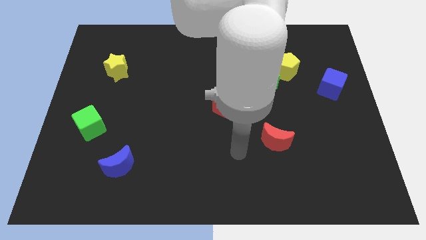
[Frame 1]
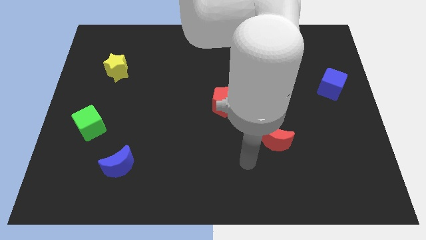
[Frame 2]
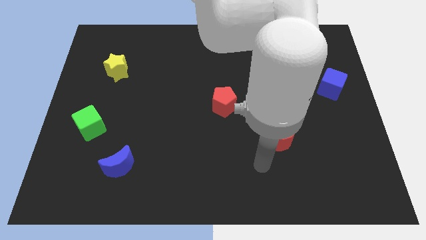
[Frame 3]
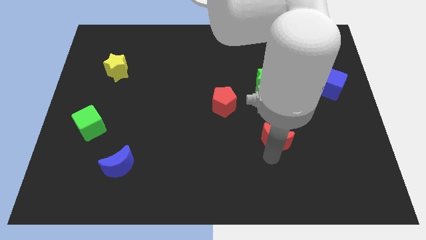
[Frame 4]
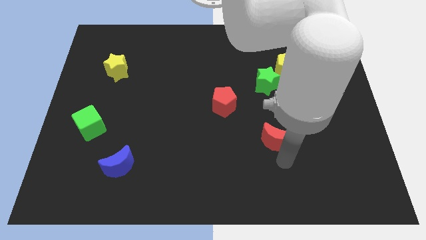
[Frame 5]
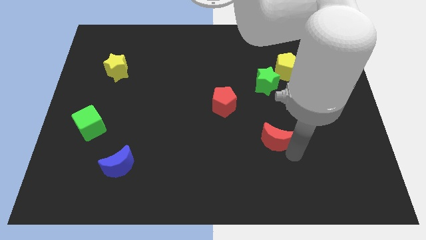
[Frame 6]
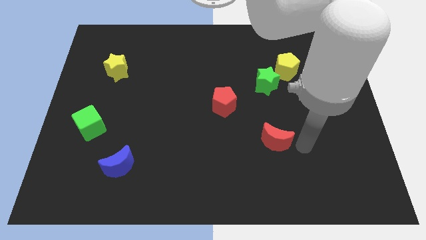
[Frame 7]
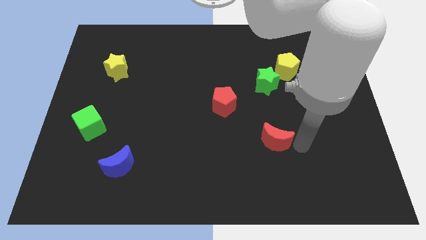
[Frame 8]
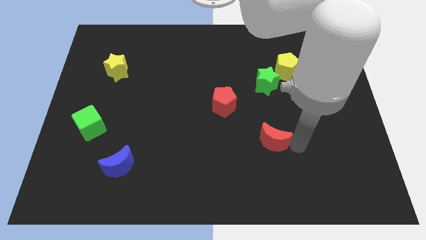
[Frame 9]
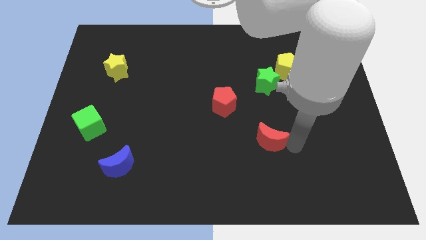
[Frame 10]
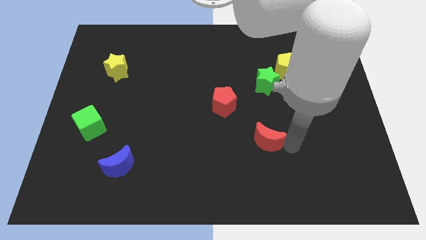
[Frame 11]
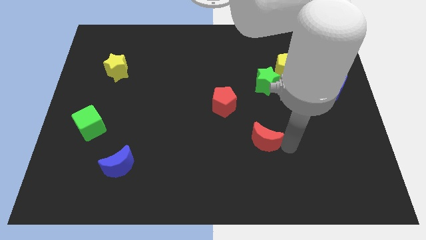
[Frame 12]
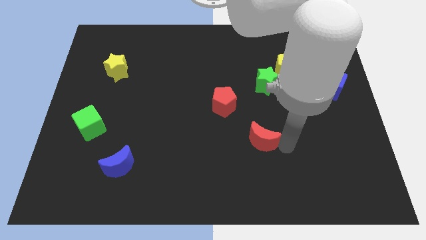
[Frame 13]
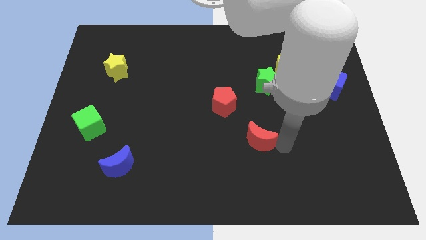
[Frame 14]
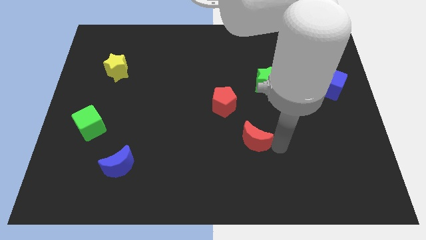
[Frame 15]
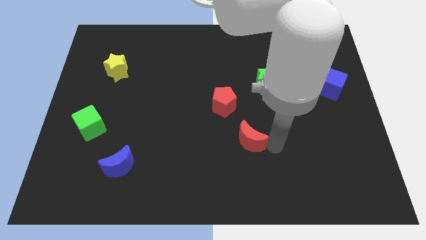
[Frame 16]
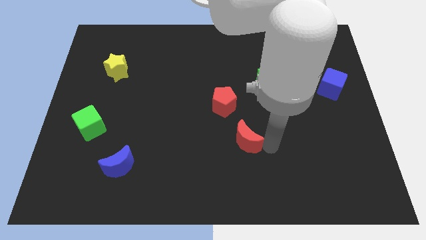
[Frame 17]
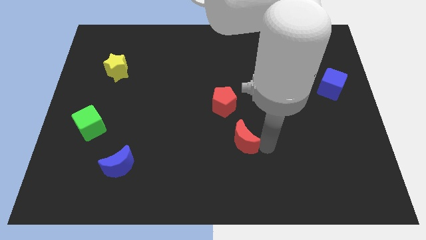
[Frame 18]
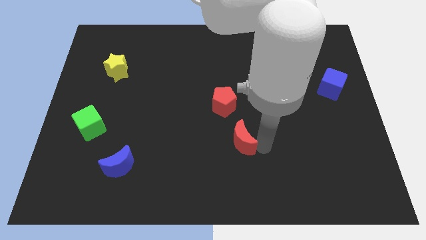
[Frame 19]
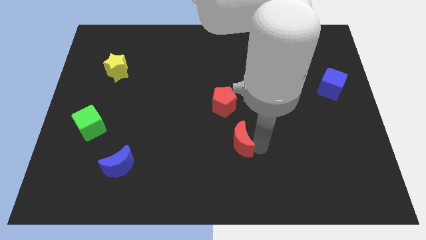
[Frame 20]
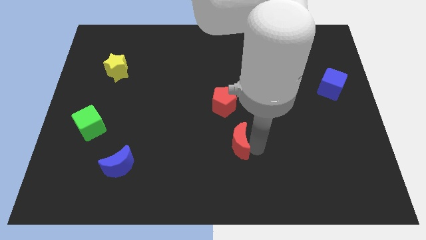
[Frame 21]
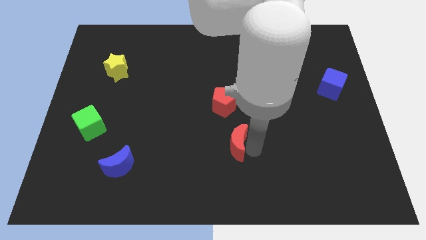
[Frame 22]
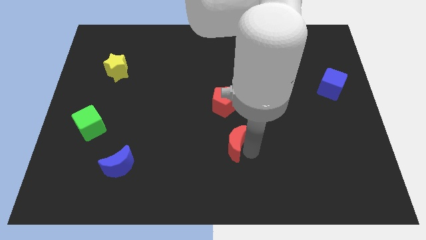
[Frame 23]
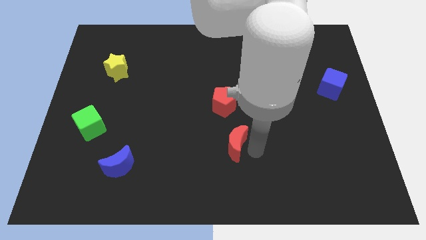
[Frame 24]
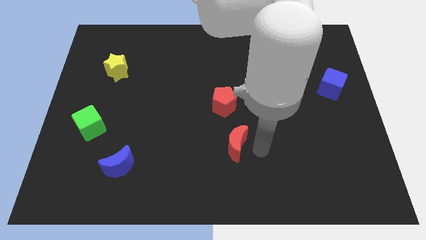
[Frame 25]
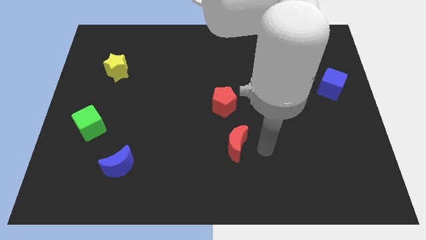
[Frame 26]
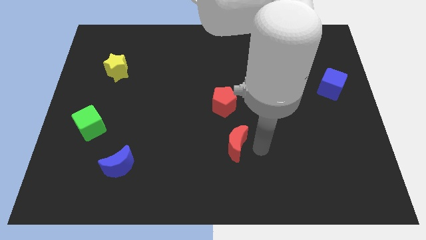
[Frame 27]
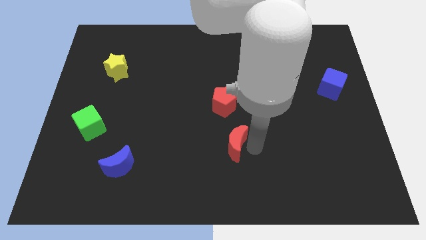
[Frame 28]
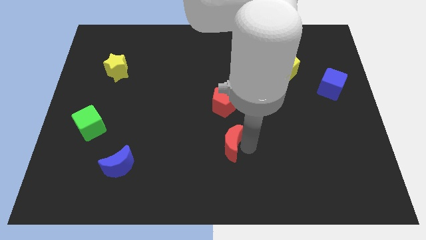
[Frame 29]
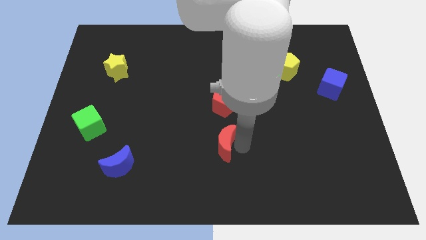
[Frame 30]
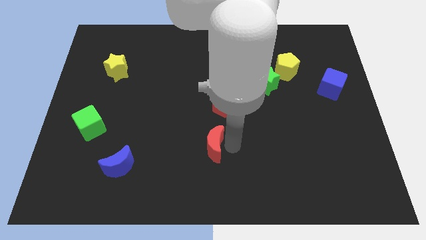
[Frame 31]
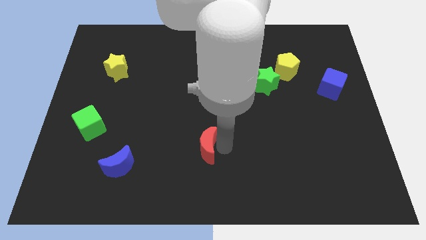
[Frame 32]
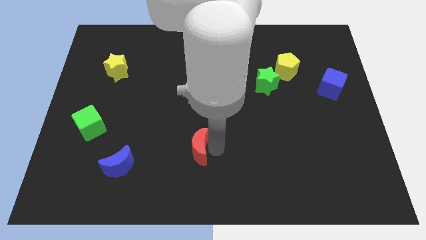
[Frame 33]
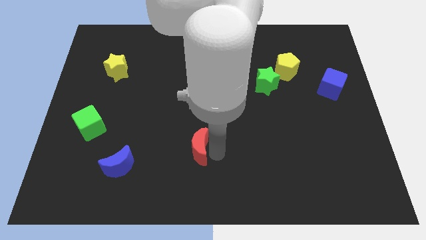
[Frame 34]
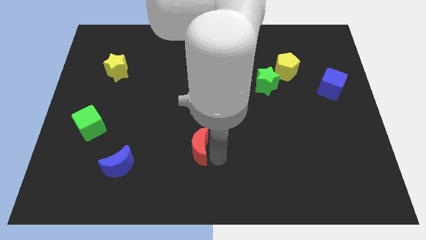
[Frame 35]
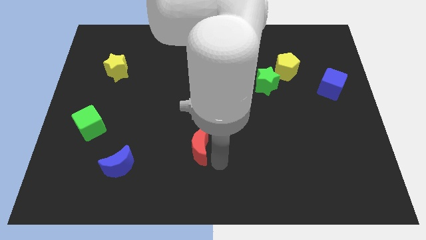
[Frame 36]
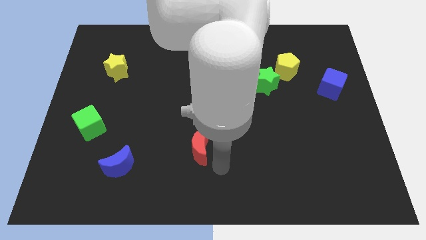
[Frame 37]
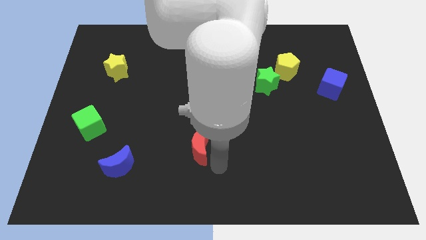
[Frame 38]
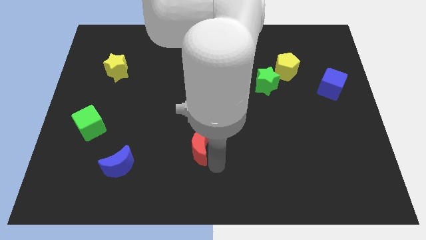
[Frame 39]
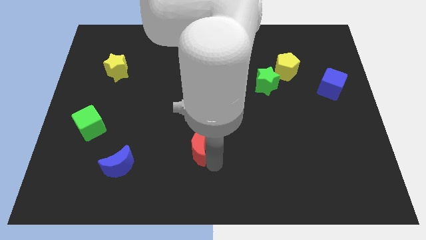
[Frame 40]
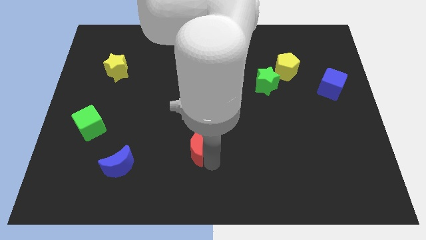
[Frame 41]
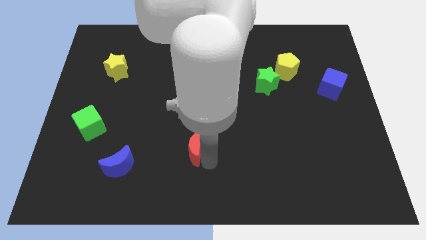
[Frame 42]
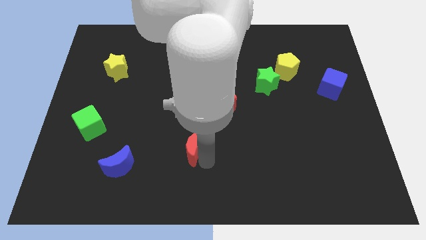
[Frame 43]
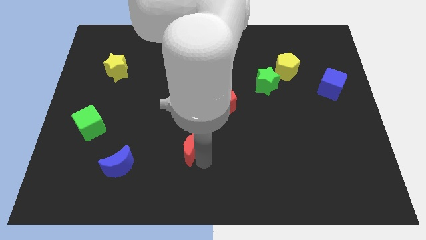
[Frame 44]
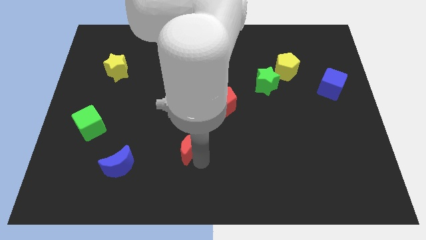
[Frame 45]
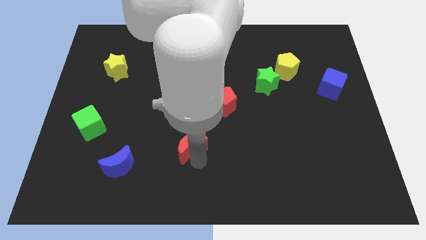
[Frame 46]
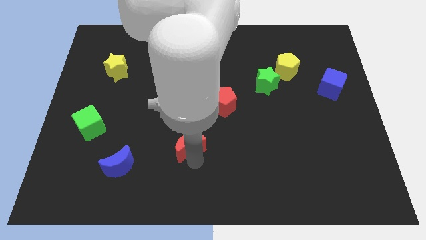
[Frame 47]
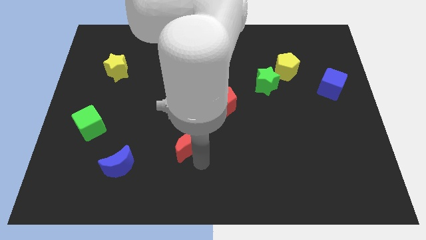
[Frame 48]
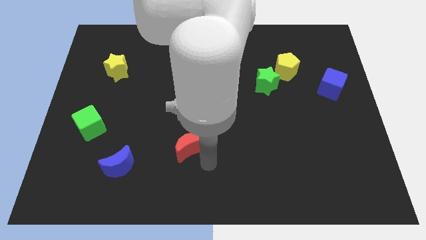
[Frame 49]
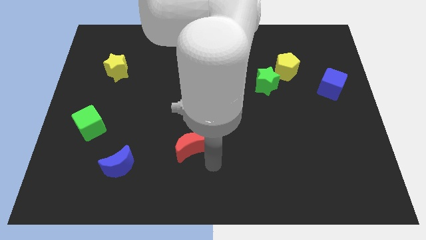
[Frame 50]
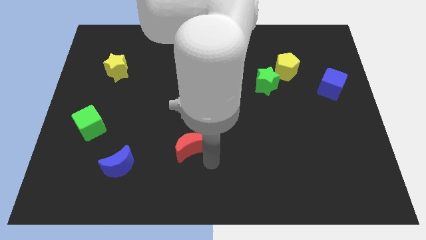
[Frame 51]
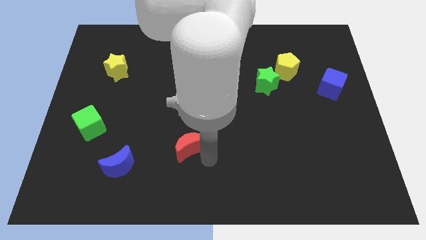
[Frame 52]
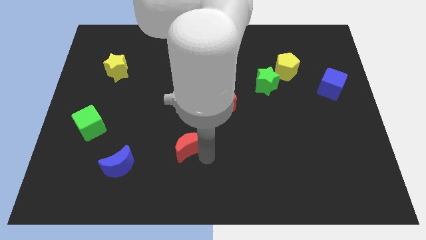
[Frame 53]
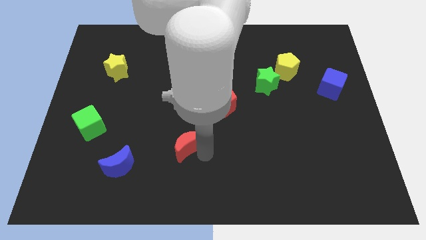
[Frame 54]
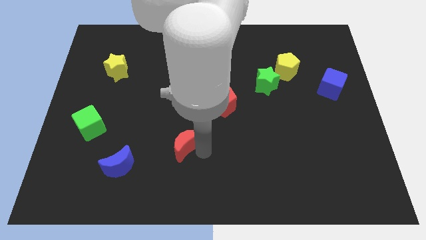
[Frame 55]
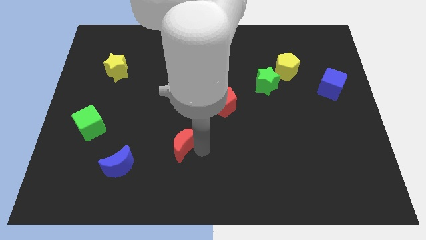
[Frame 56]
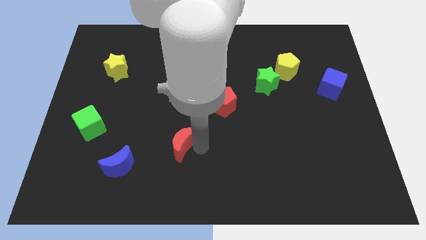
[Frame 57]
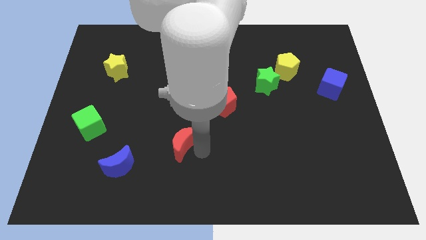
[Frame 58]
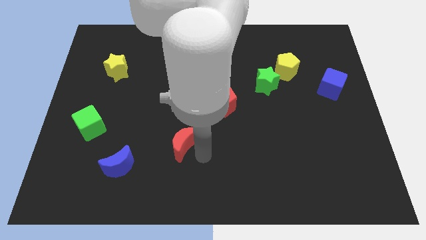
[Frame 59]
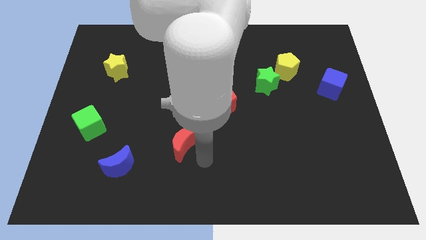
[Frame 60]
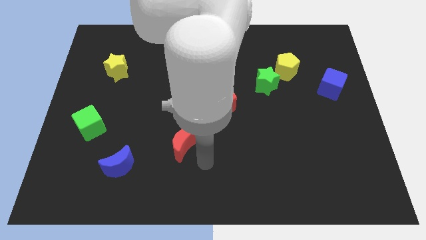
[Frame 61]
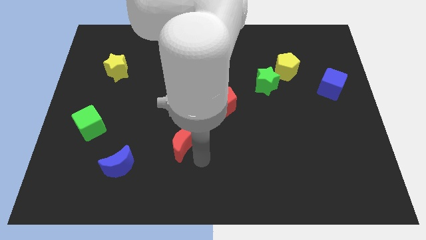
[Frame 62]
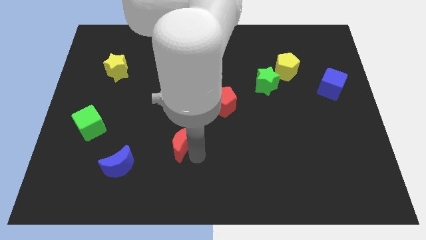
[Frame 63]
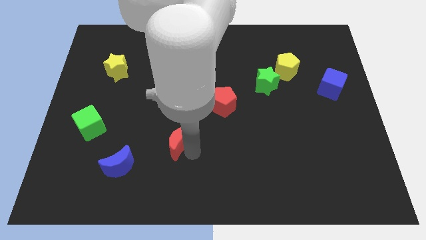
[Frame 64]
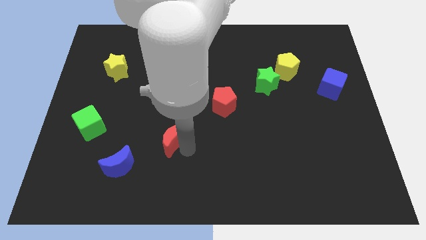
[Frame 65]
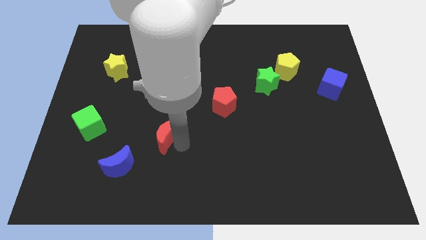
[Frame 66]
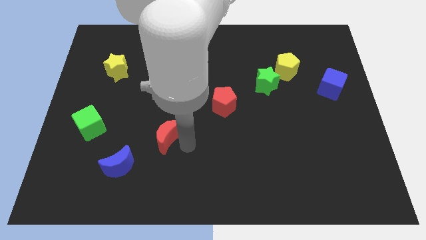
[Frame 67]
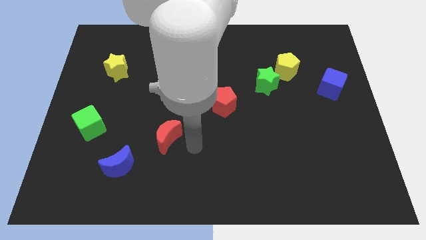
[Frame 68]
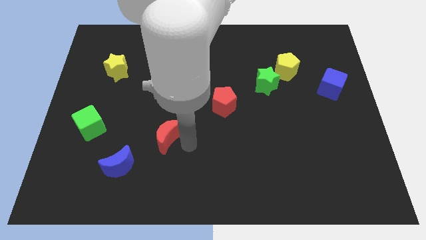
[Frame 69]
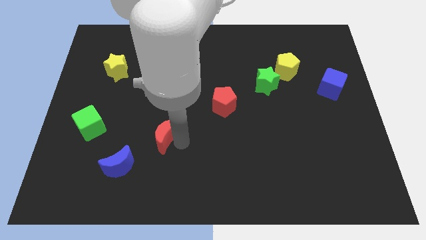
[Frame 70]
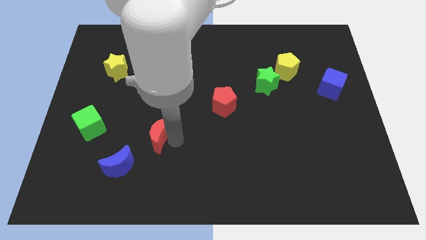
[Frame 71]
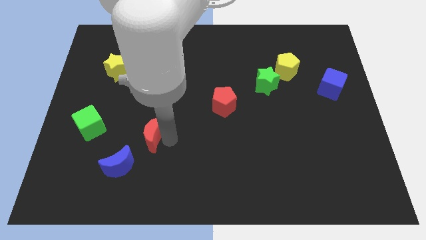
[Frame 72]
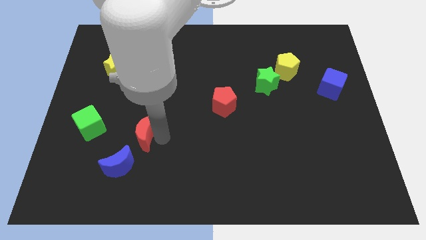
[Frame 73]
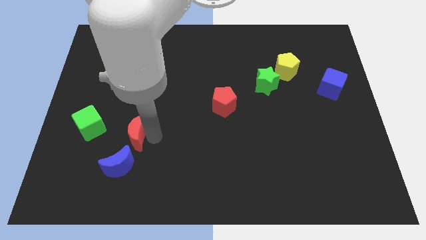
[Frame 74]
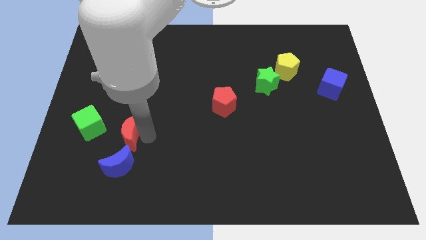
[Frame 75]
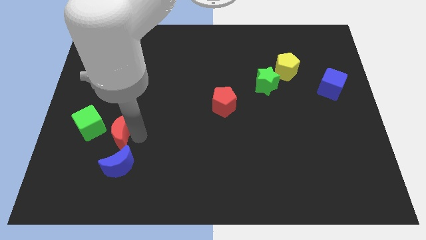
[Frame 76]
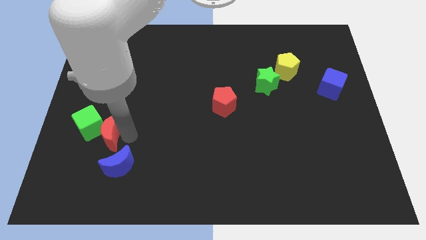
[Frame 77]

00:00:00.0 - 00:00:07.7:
push the red moon close to the green cube
